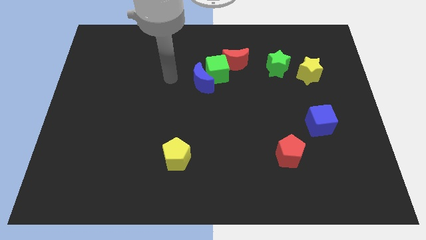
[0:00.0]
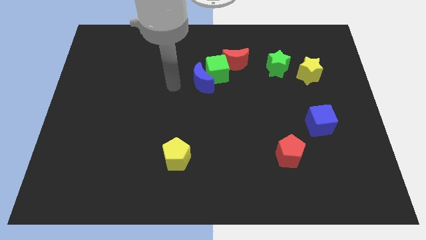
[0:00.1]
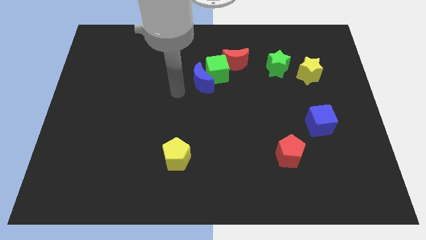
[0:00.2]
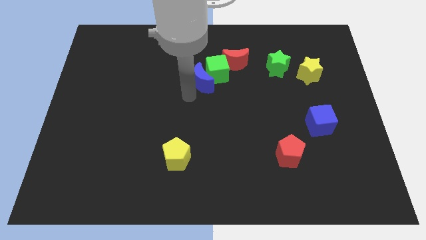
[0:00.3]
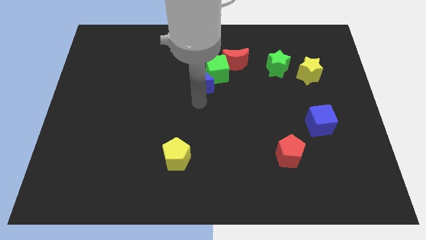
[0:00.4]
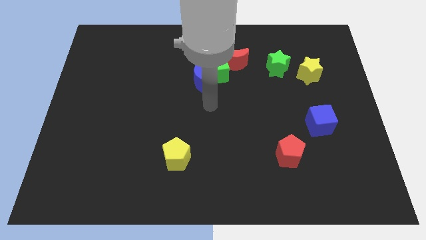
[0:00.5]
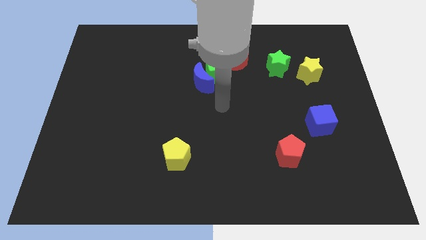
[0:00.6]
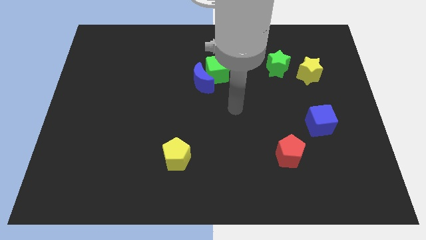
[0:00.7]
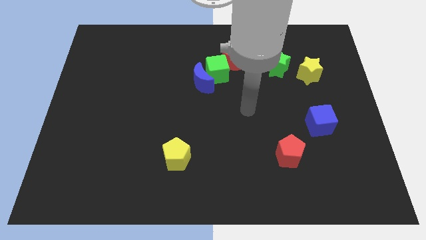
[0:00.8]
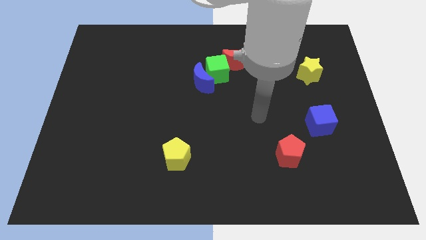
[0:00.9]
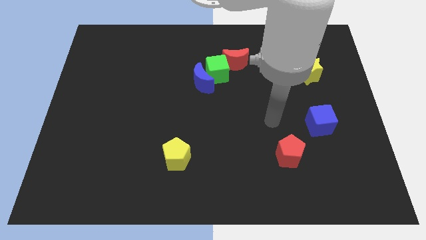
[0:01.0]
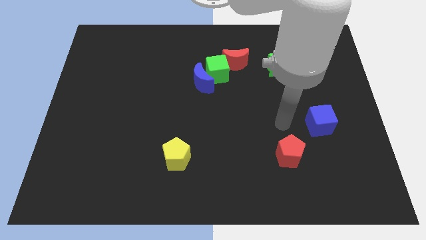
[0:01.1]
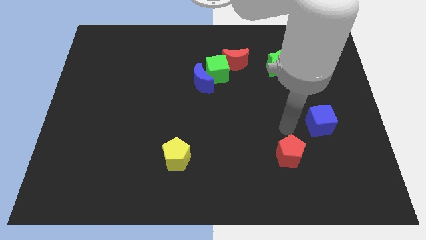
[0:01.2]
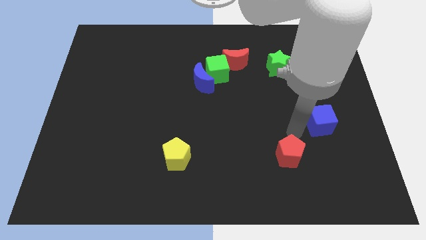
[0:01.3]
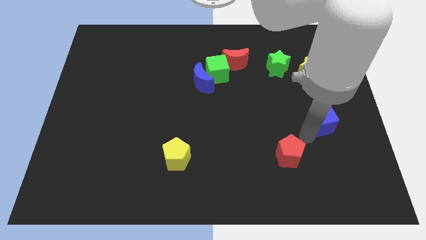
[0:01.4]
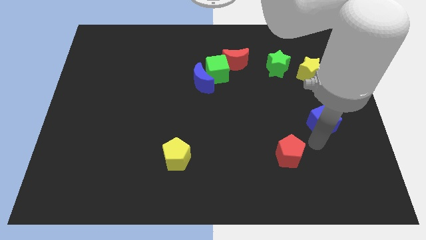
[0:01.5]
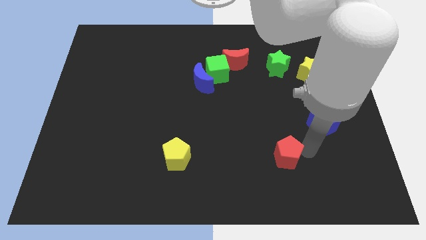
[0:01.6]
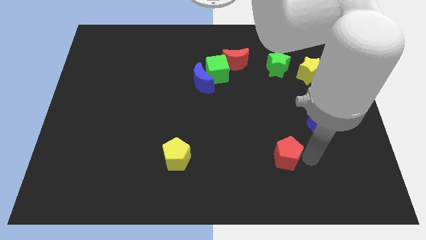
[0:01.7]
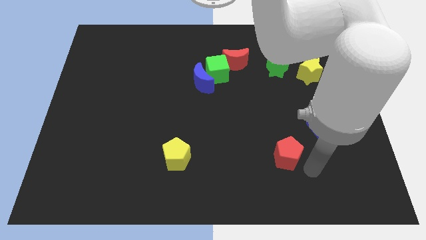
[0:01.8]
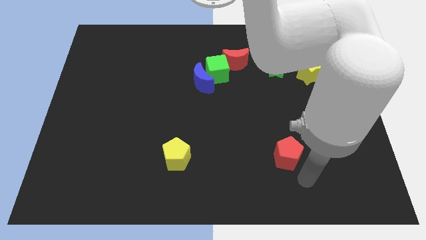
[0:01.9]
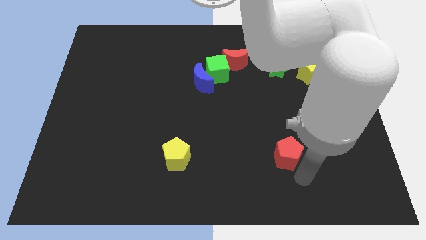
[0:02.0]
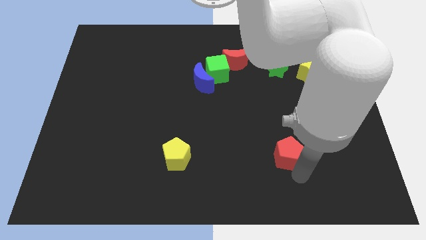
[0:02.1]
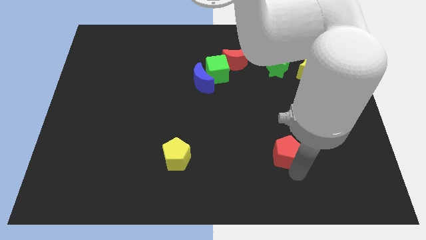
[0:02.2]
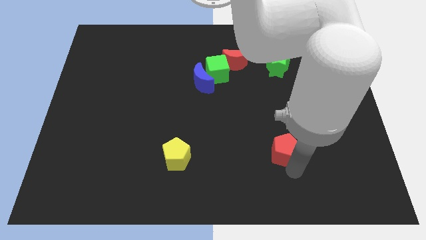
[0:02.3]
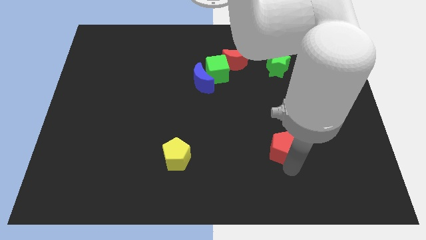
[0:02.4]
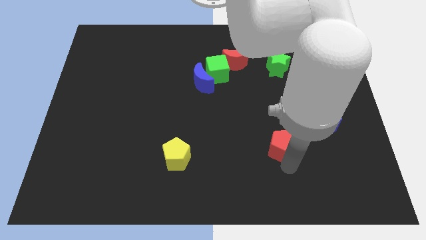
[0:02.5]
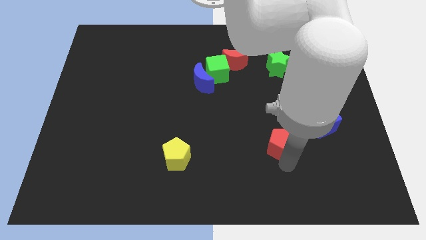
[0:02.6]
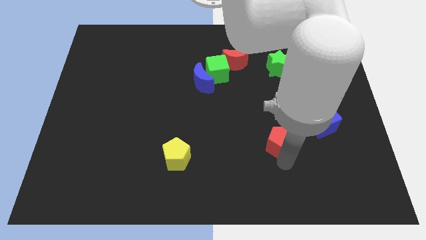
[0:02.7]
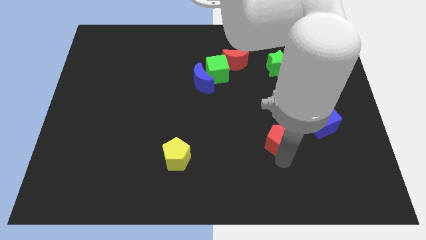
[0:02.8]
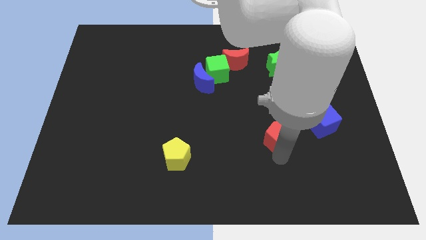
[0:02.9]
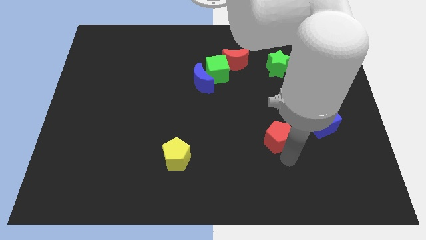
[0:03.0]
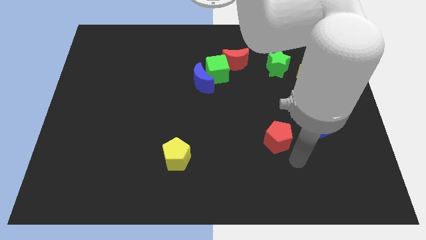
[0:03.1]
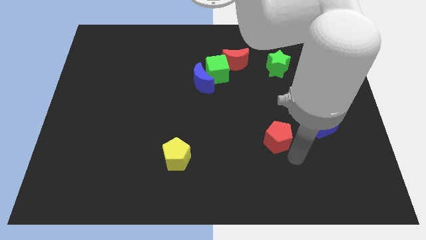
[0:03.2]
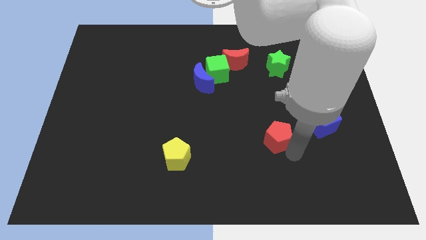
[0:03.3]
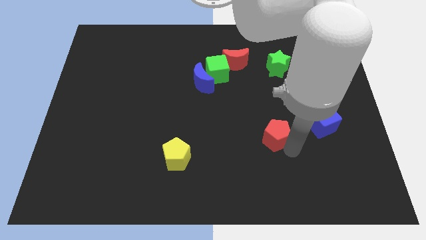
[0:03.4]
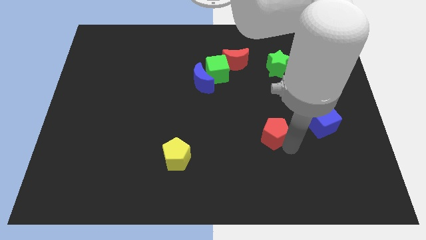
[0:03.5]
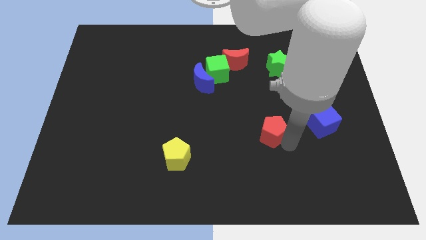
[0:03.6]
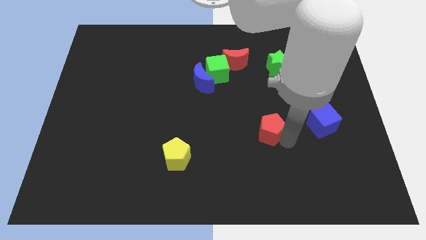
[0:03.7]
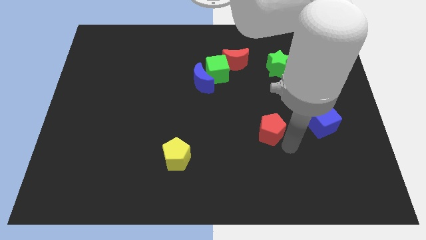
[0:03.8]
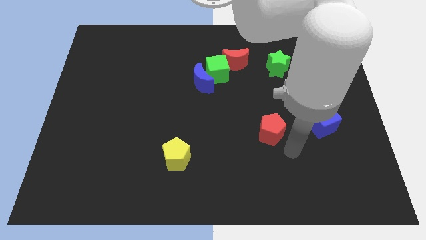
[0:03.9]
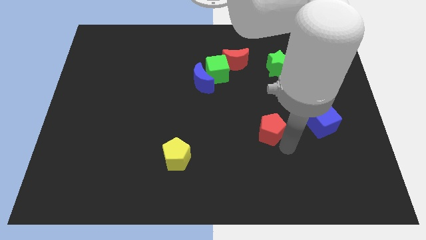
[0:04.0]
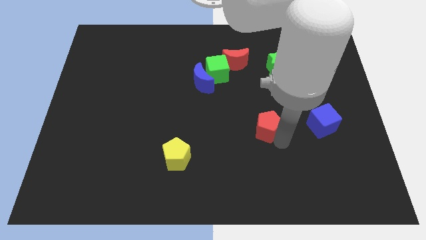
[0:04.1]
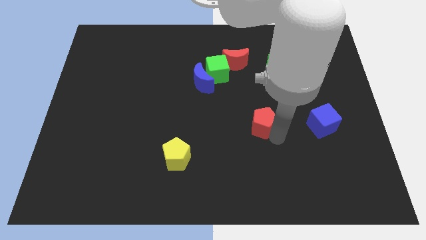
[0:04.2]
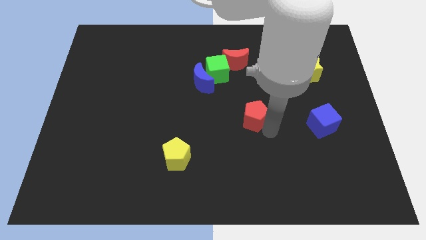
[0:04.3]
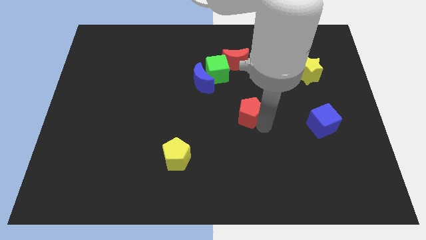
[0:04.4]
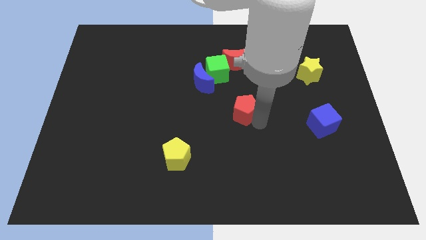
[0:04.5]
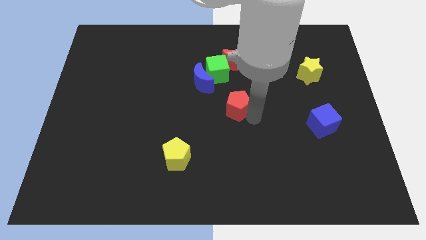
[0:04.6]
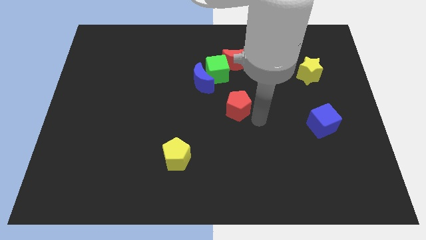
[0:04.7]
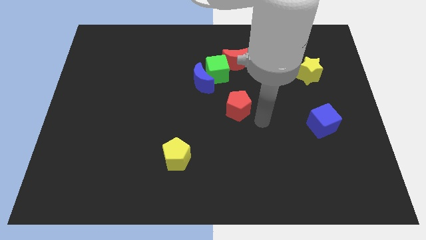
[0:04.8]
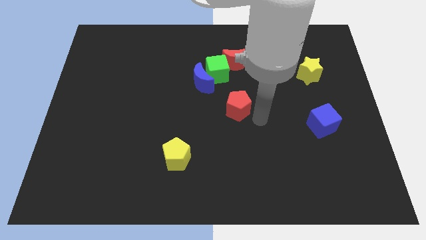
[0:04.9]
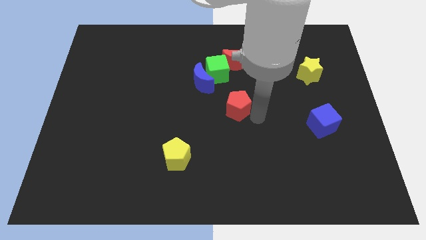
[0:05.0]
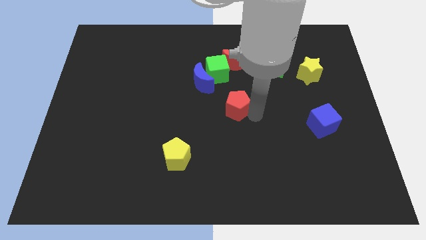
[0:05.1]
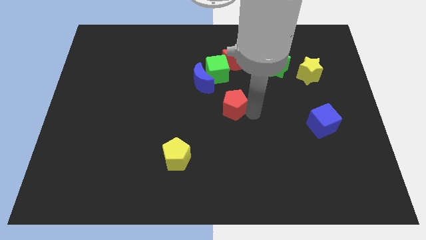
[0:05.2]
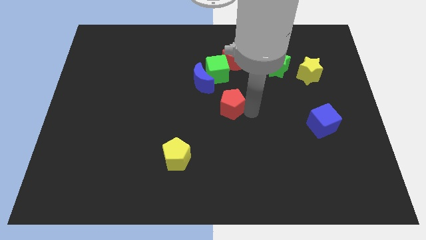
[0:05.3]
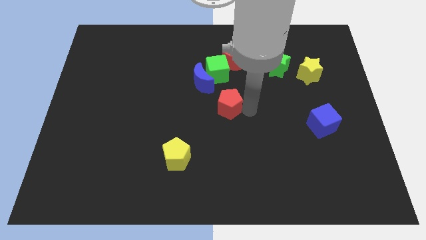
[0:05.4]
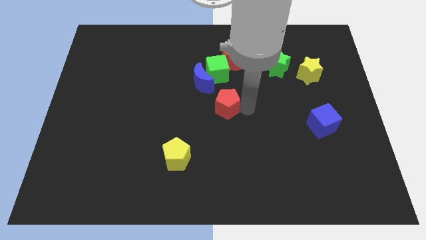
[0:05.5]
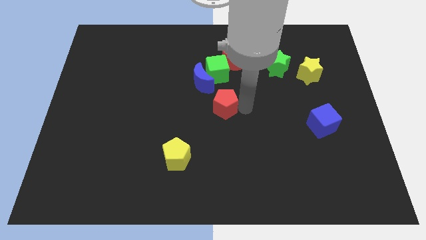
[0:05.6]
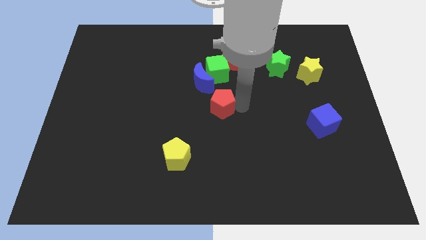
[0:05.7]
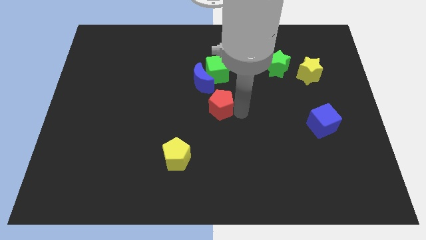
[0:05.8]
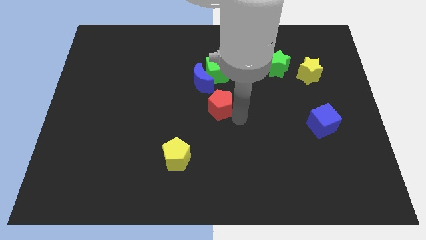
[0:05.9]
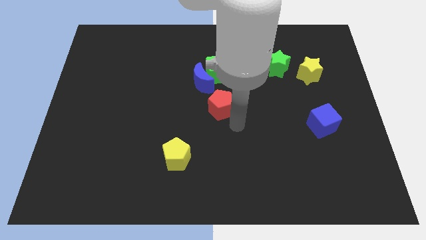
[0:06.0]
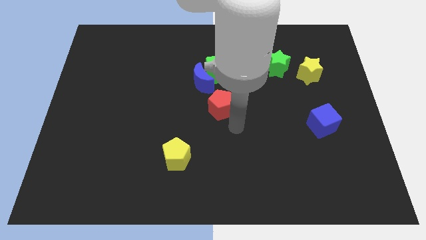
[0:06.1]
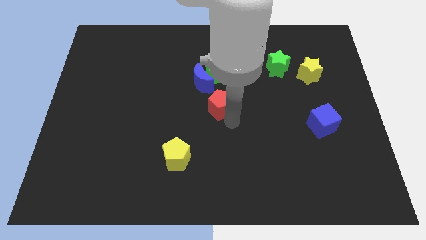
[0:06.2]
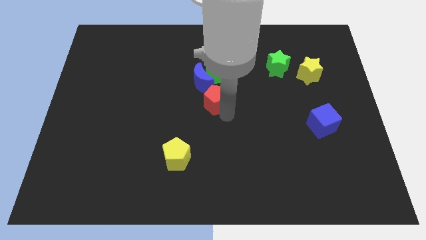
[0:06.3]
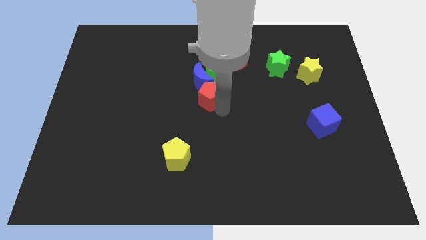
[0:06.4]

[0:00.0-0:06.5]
slide the red pentagon close to the blue moon

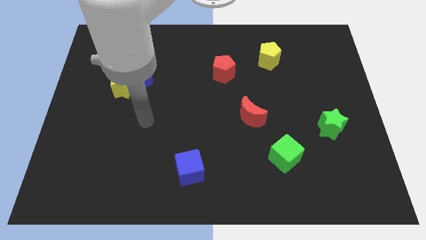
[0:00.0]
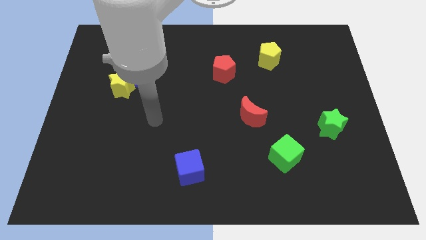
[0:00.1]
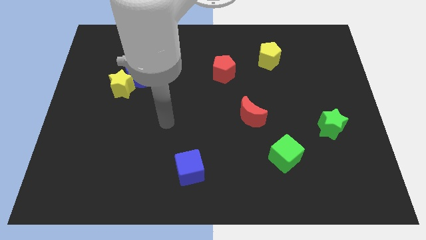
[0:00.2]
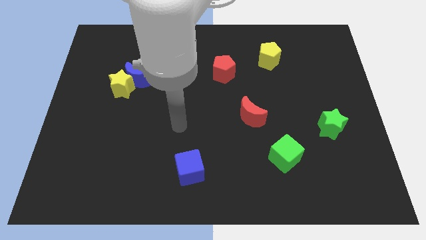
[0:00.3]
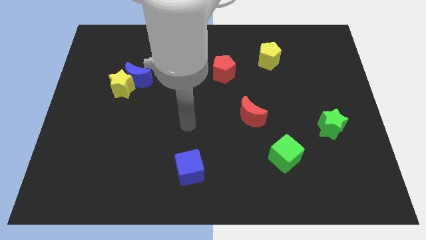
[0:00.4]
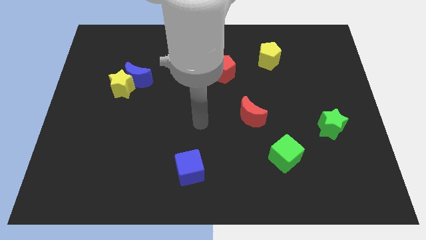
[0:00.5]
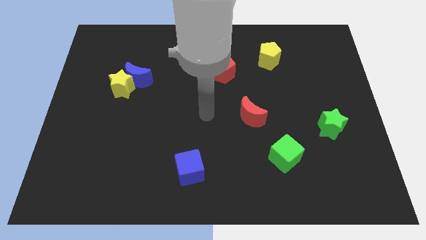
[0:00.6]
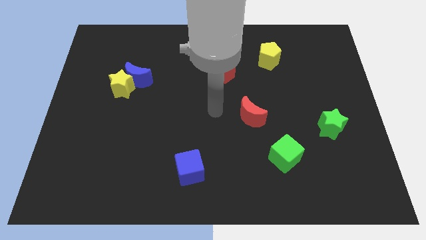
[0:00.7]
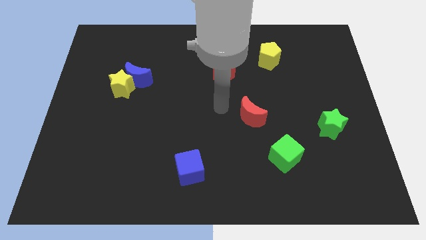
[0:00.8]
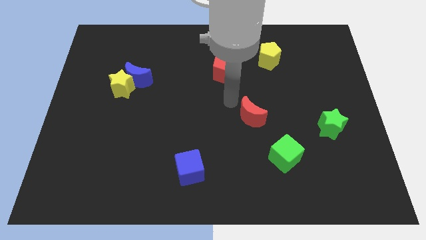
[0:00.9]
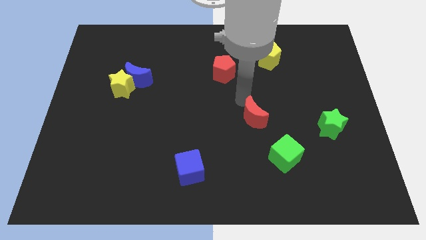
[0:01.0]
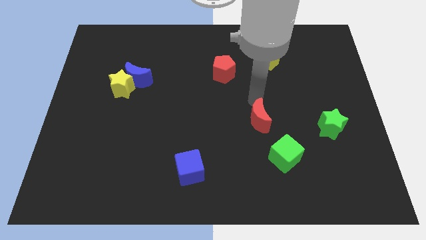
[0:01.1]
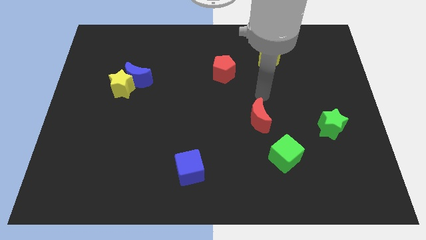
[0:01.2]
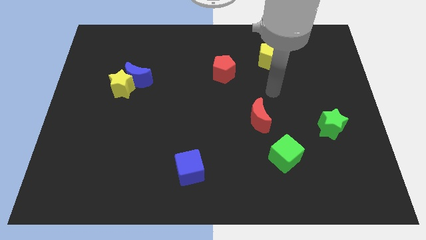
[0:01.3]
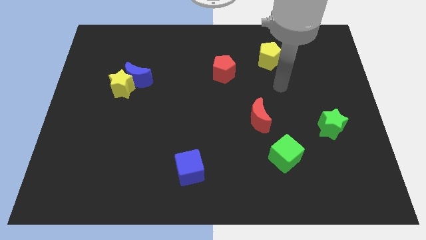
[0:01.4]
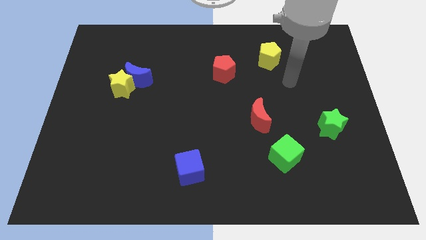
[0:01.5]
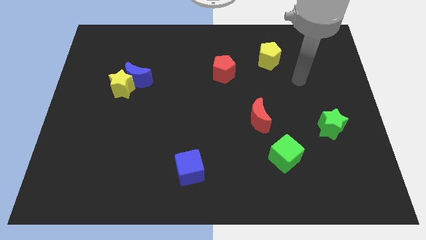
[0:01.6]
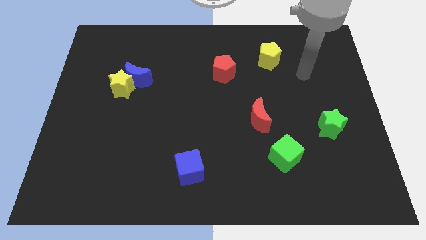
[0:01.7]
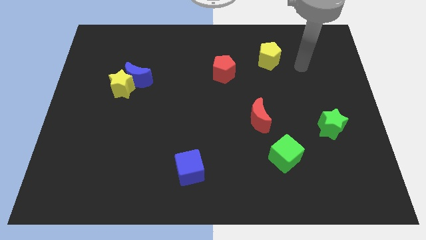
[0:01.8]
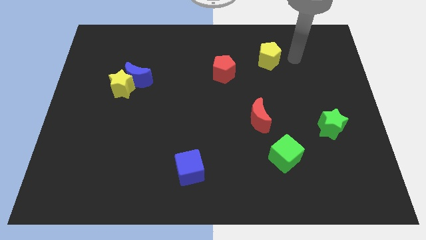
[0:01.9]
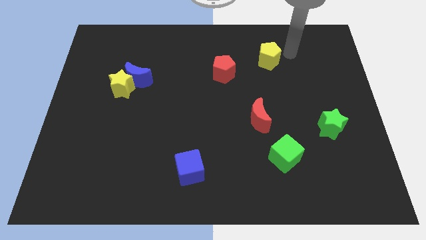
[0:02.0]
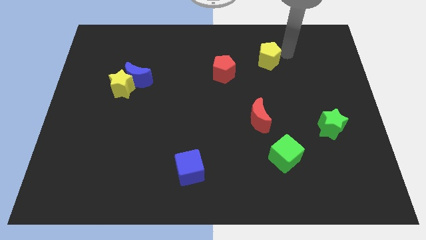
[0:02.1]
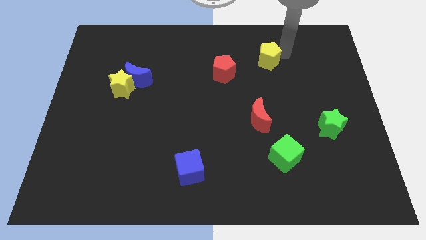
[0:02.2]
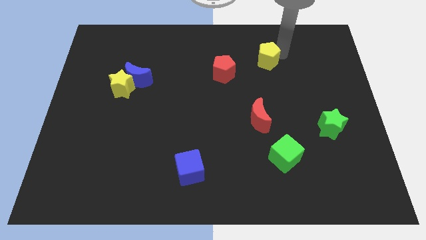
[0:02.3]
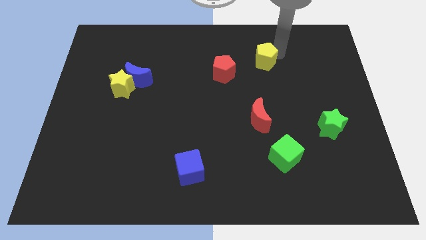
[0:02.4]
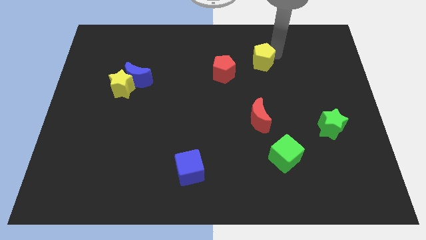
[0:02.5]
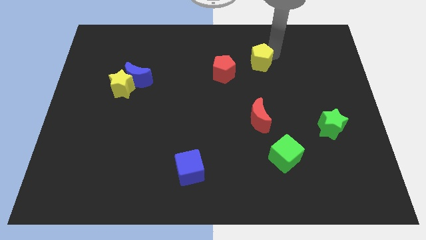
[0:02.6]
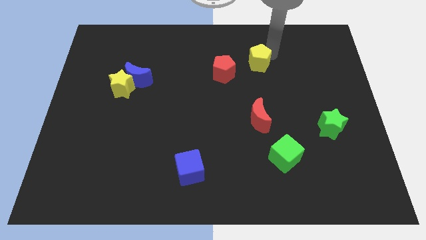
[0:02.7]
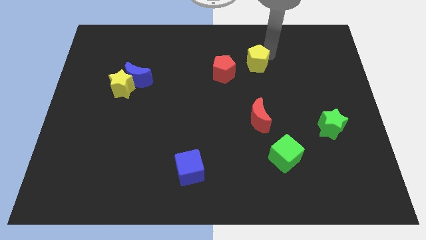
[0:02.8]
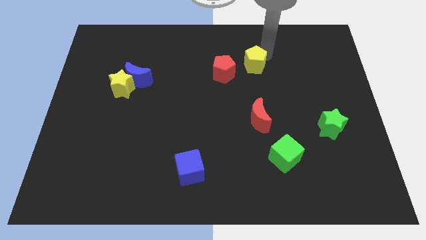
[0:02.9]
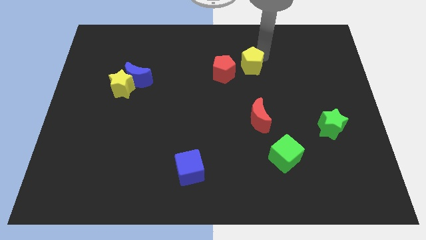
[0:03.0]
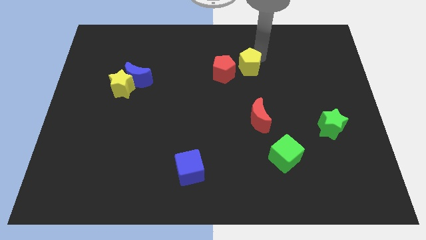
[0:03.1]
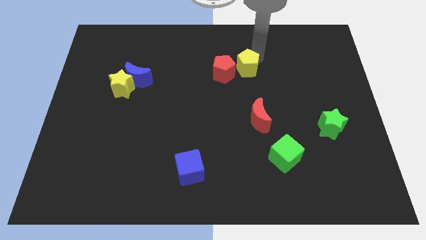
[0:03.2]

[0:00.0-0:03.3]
push the yellow pentagon to the red pentagon
